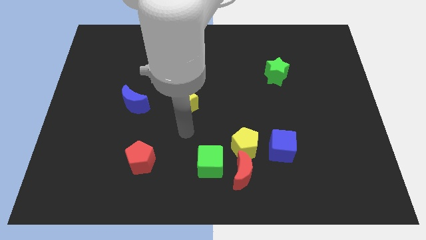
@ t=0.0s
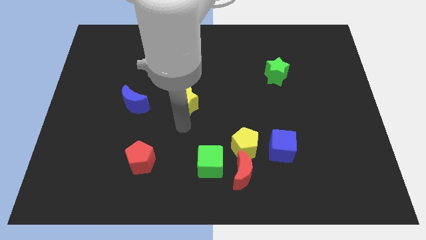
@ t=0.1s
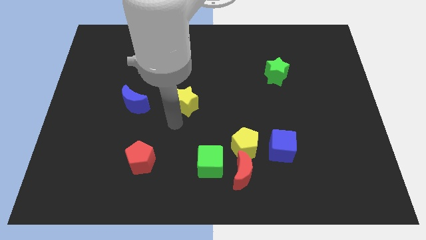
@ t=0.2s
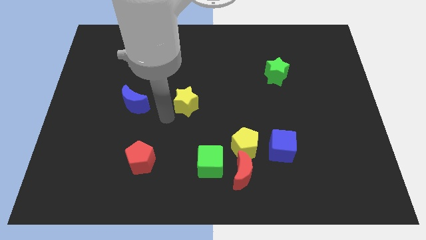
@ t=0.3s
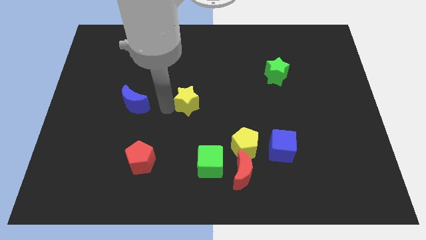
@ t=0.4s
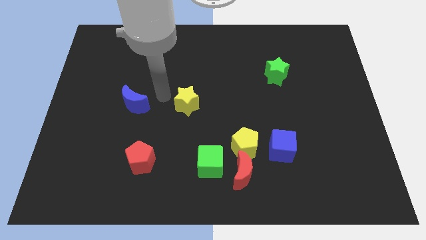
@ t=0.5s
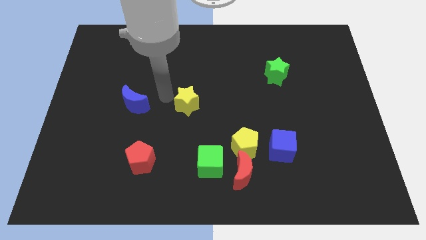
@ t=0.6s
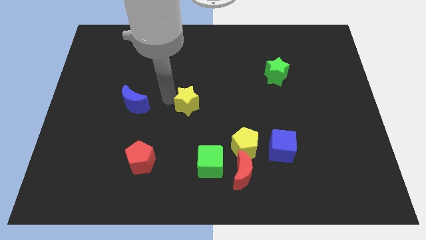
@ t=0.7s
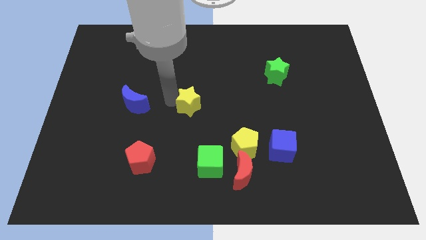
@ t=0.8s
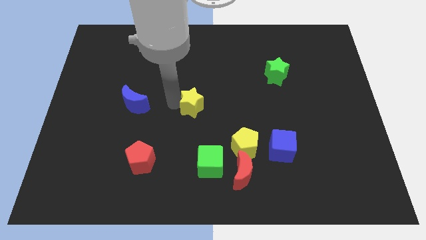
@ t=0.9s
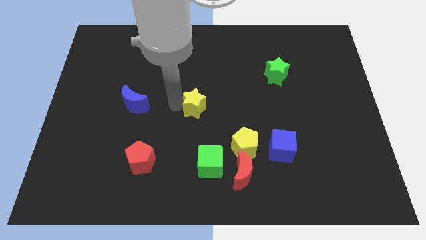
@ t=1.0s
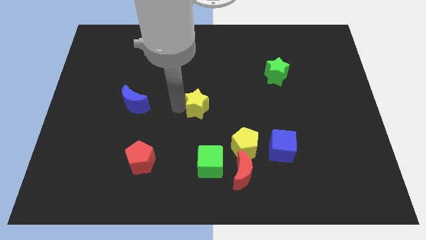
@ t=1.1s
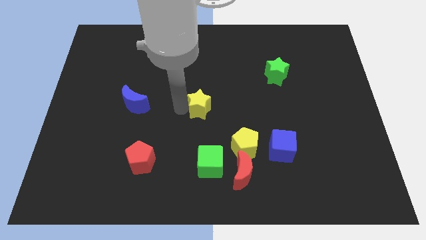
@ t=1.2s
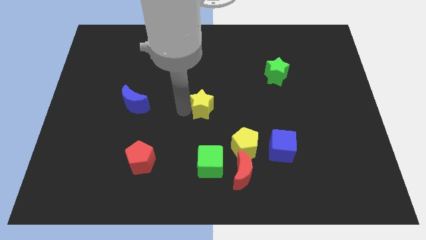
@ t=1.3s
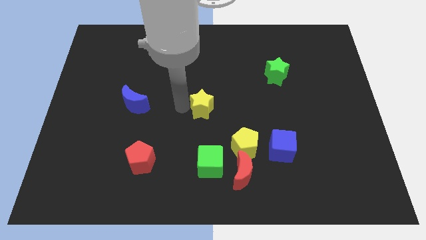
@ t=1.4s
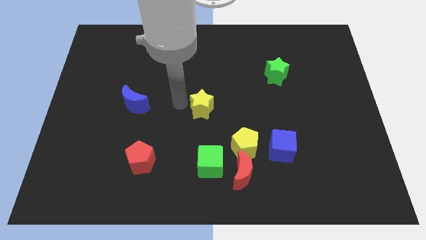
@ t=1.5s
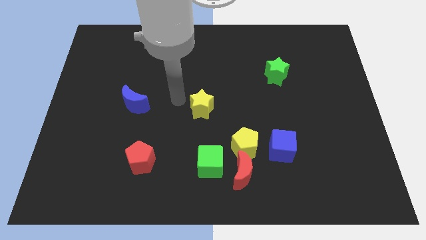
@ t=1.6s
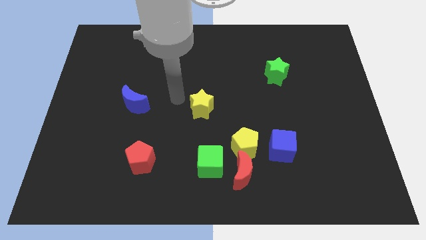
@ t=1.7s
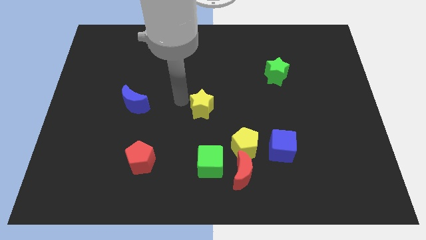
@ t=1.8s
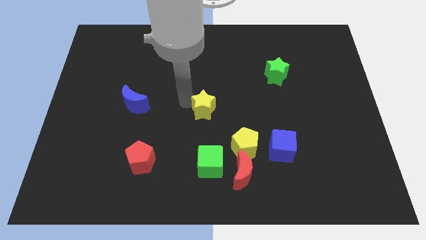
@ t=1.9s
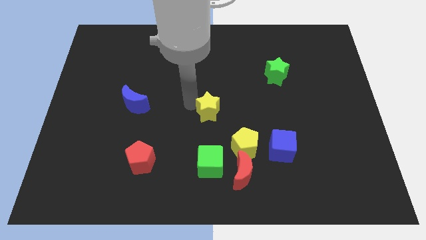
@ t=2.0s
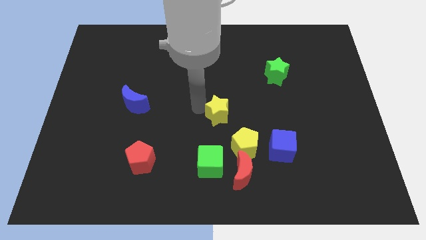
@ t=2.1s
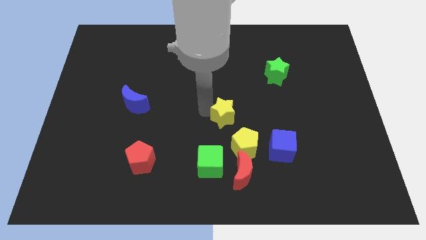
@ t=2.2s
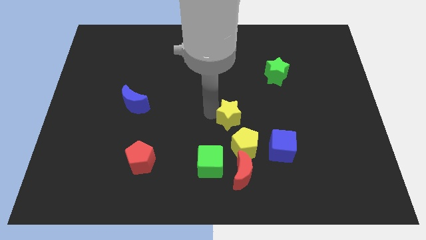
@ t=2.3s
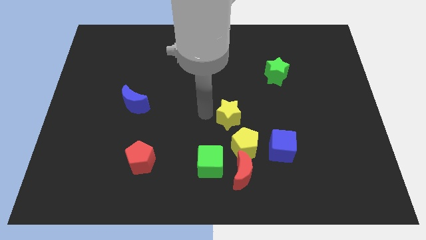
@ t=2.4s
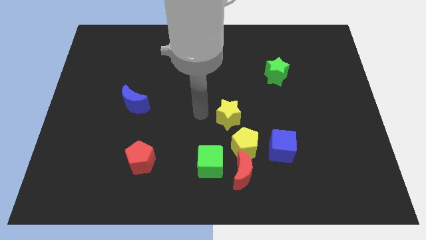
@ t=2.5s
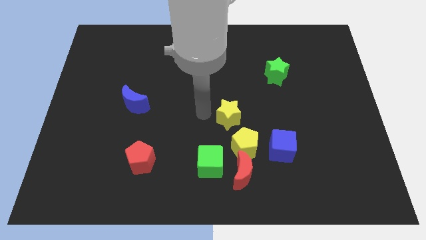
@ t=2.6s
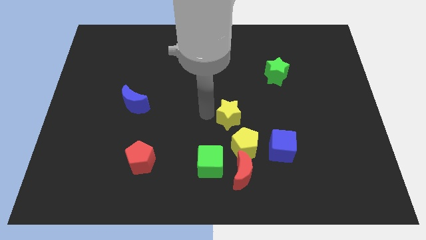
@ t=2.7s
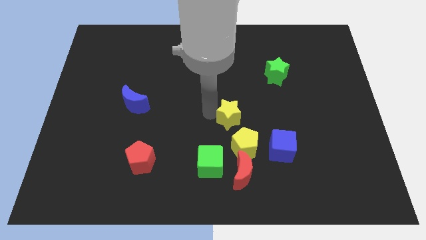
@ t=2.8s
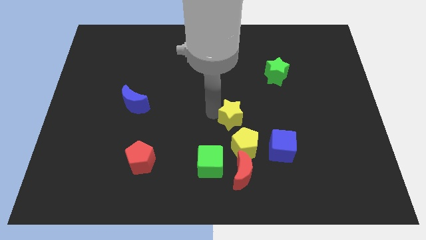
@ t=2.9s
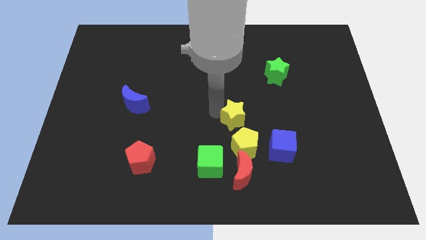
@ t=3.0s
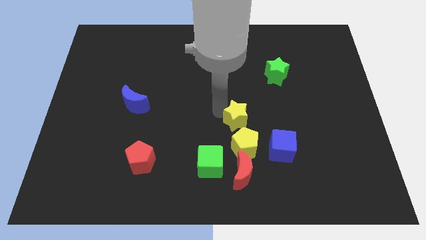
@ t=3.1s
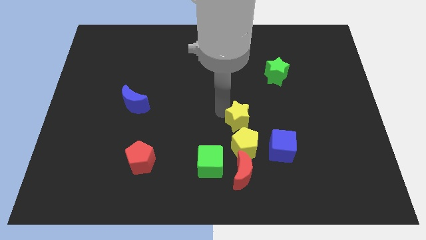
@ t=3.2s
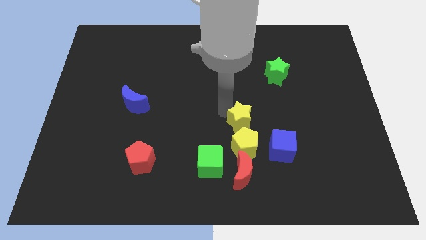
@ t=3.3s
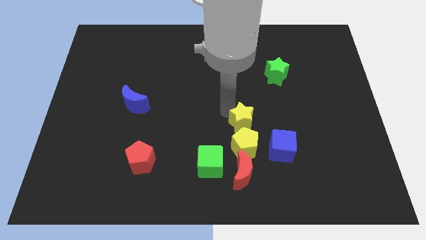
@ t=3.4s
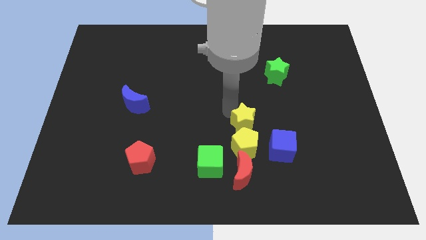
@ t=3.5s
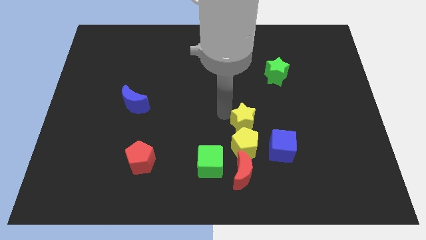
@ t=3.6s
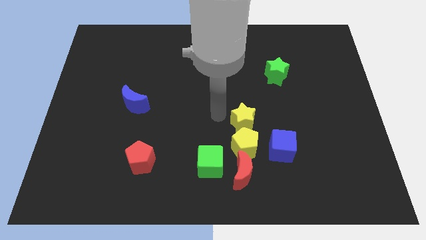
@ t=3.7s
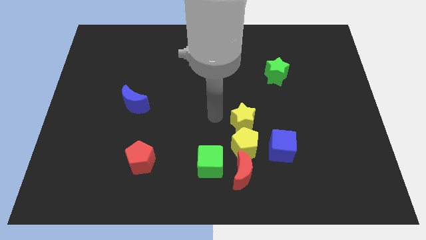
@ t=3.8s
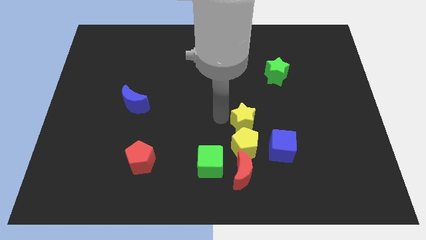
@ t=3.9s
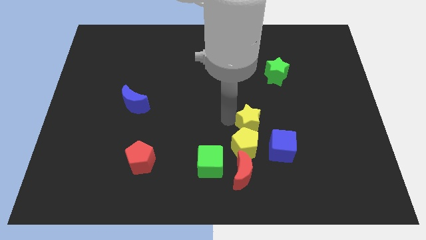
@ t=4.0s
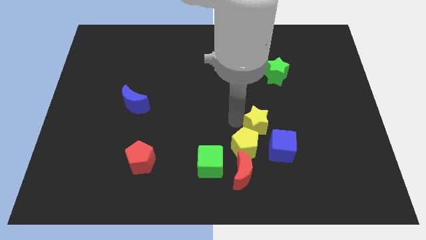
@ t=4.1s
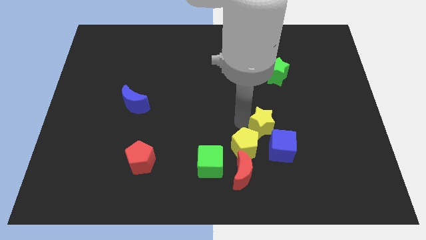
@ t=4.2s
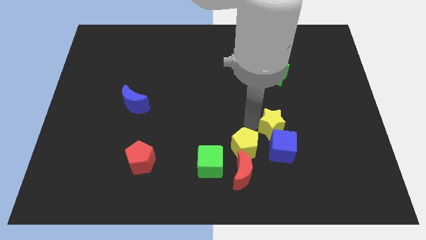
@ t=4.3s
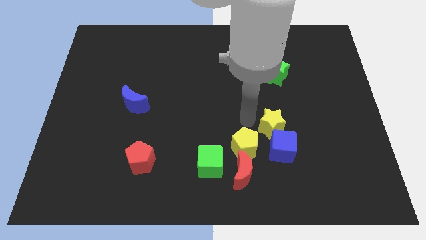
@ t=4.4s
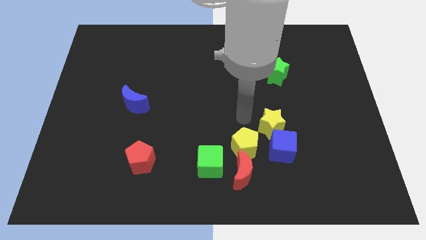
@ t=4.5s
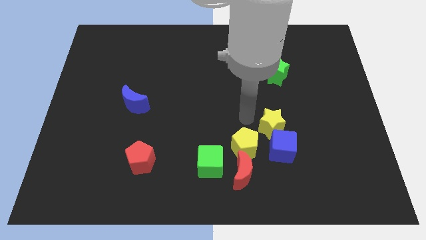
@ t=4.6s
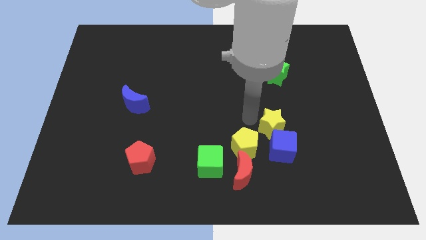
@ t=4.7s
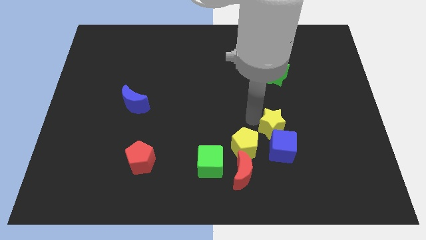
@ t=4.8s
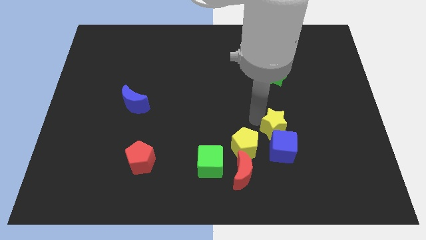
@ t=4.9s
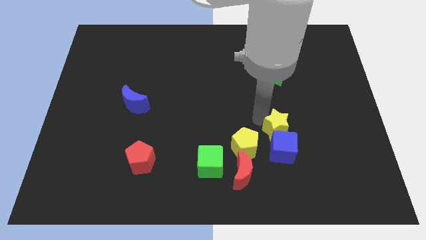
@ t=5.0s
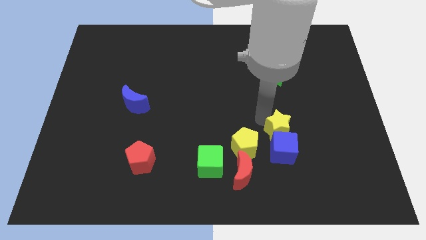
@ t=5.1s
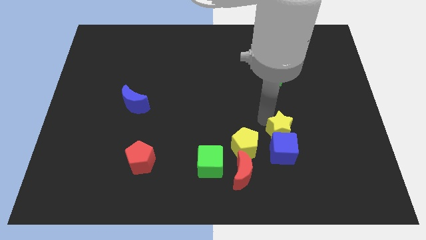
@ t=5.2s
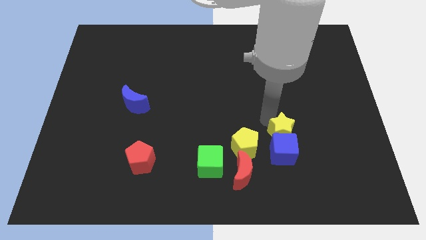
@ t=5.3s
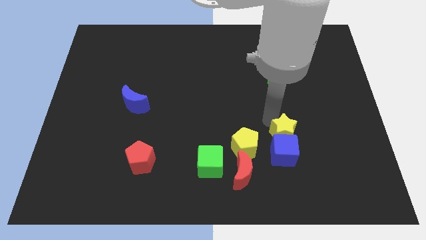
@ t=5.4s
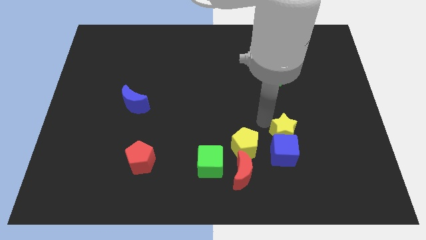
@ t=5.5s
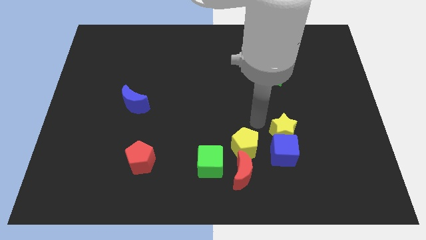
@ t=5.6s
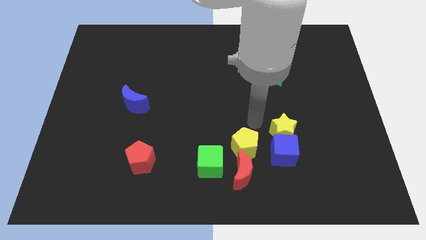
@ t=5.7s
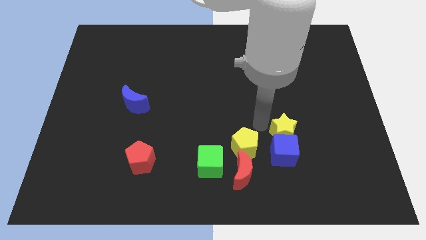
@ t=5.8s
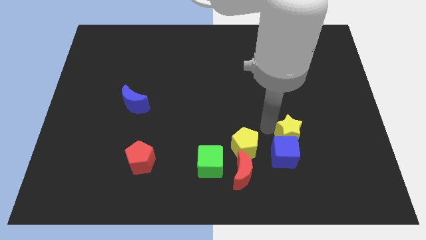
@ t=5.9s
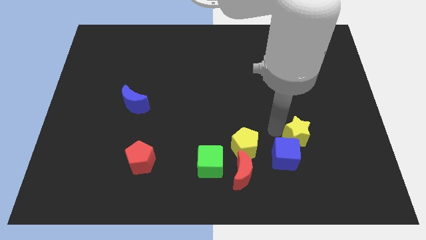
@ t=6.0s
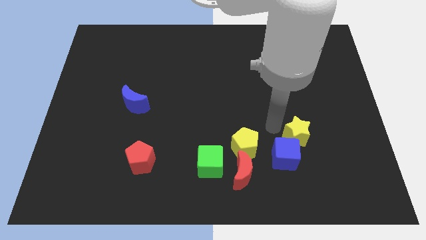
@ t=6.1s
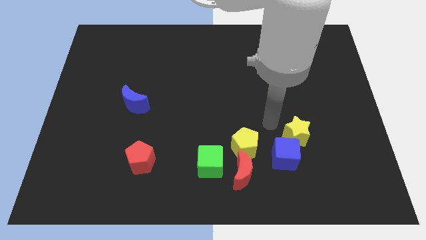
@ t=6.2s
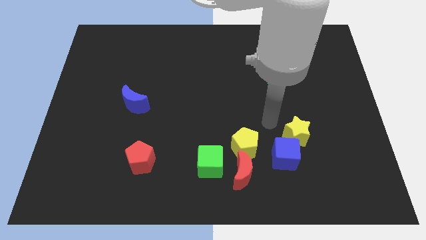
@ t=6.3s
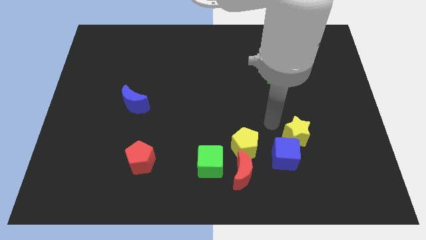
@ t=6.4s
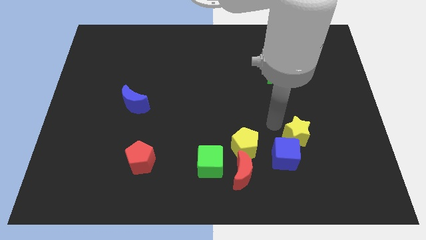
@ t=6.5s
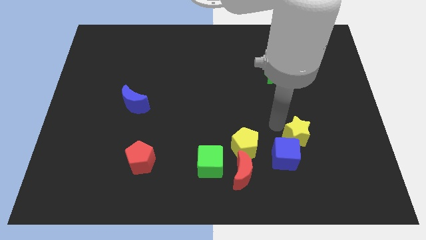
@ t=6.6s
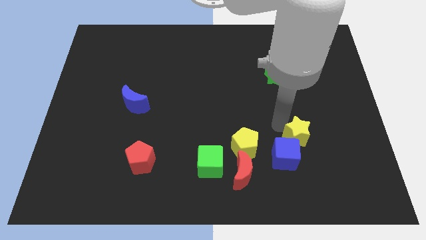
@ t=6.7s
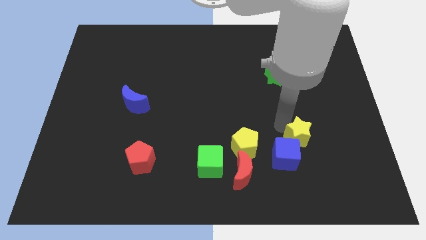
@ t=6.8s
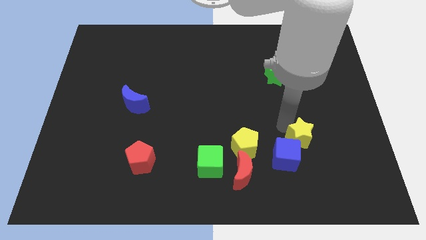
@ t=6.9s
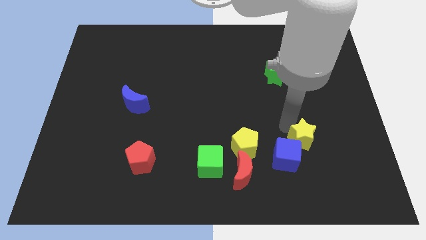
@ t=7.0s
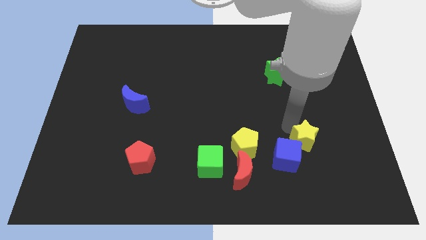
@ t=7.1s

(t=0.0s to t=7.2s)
put the yellow star just right of the blue cube
